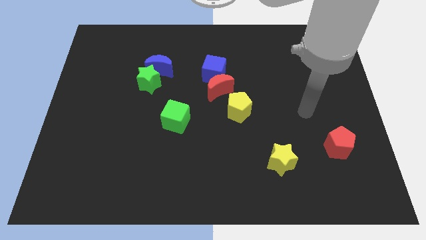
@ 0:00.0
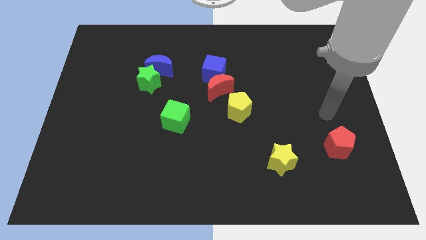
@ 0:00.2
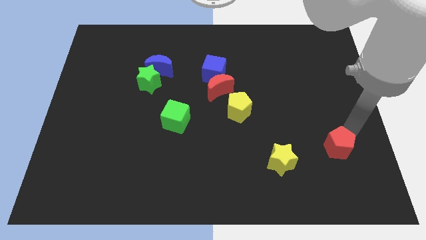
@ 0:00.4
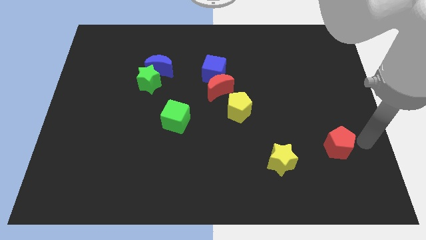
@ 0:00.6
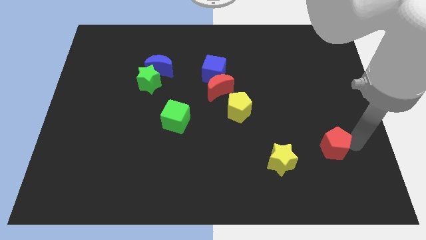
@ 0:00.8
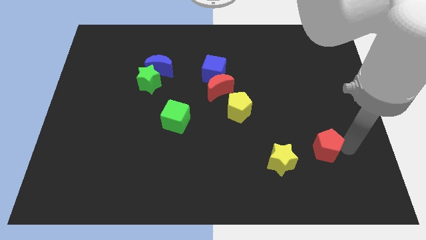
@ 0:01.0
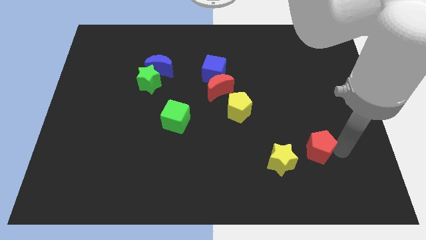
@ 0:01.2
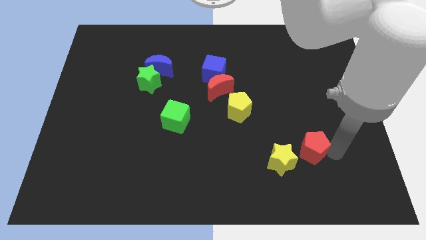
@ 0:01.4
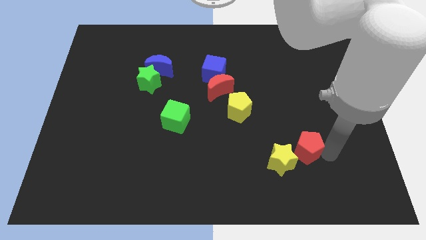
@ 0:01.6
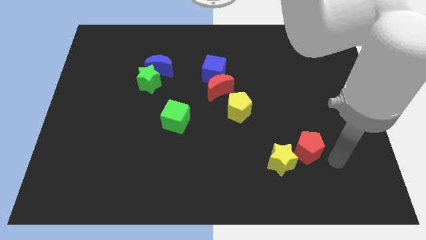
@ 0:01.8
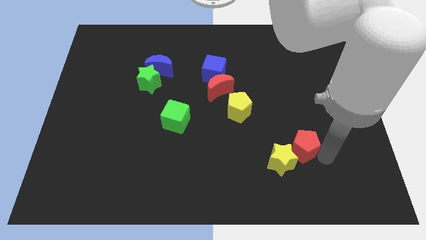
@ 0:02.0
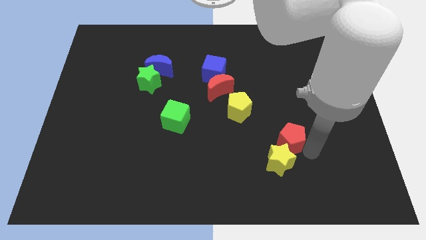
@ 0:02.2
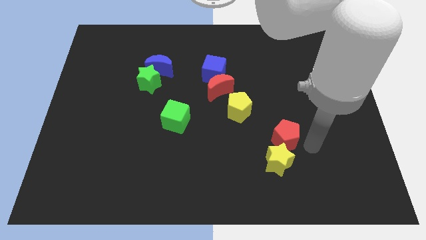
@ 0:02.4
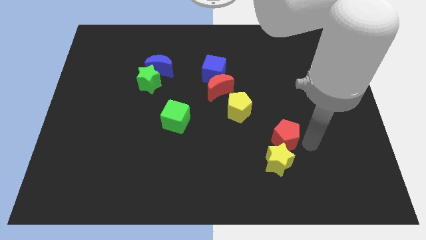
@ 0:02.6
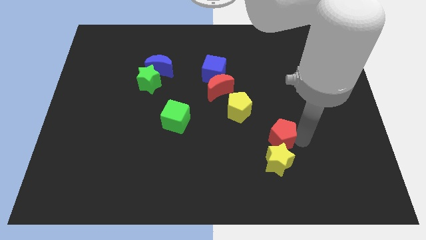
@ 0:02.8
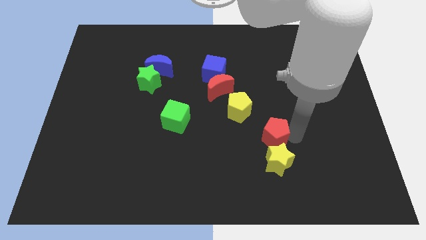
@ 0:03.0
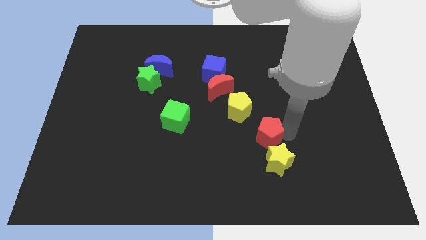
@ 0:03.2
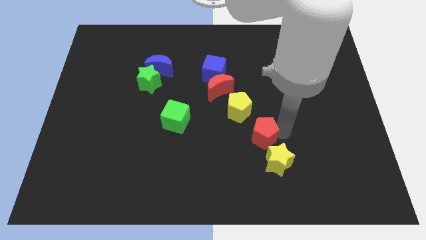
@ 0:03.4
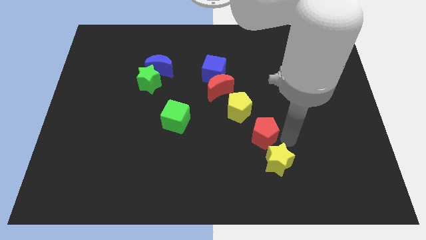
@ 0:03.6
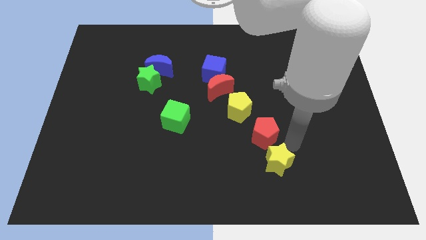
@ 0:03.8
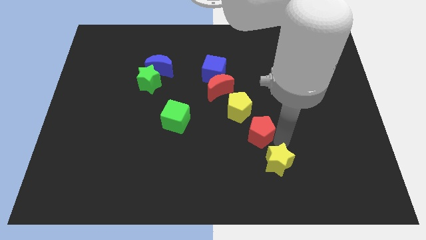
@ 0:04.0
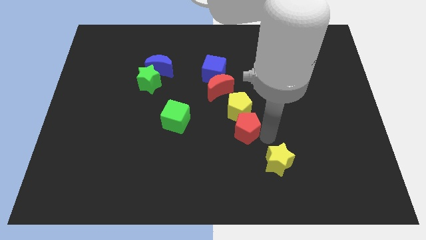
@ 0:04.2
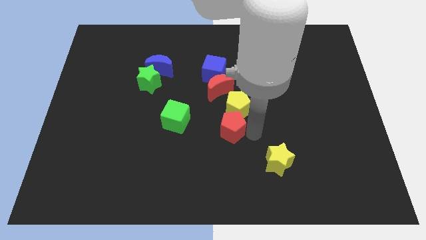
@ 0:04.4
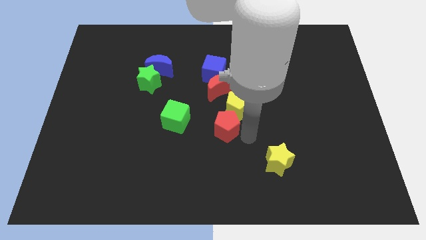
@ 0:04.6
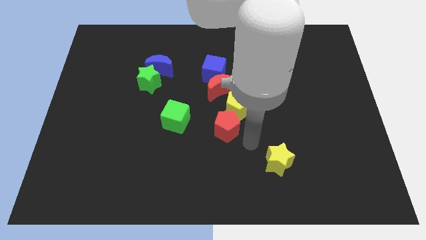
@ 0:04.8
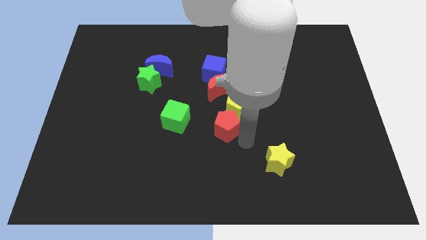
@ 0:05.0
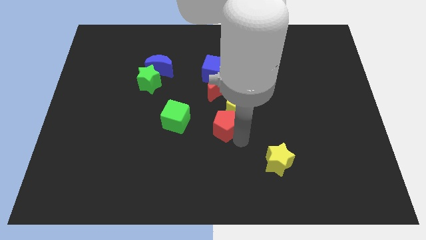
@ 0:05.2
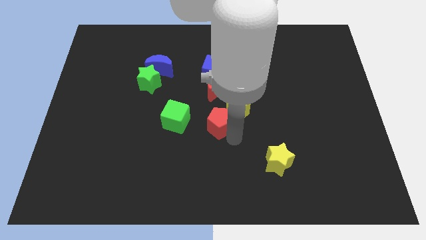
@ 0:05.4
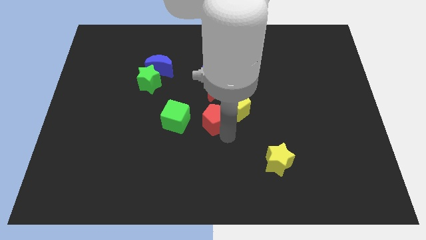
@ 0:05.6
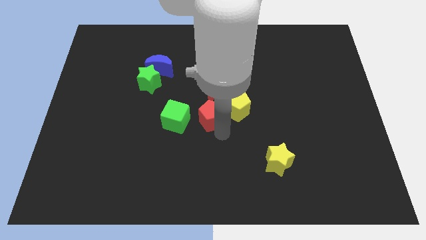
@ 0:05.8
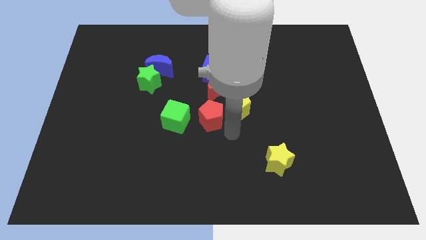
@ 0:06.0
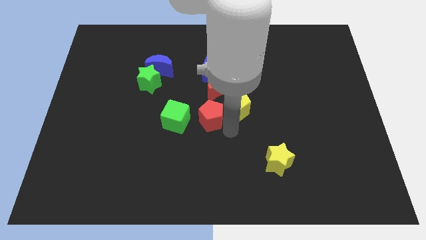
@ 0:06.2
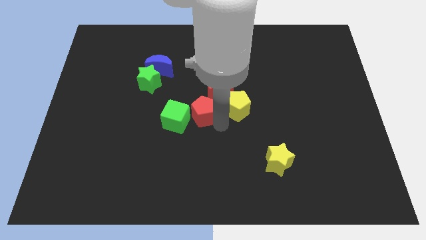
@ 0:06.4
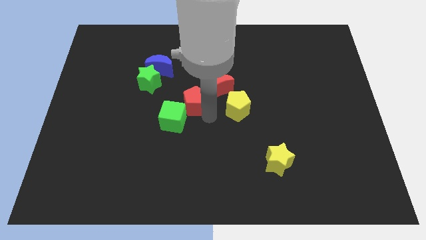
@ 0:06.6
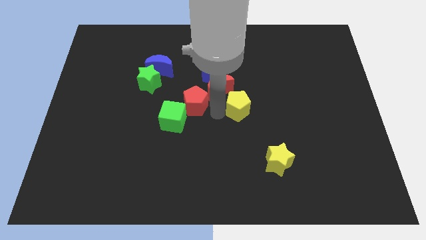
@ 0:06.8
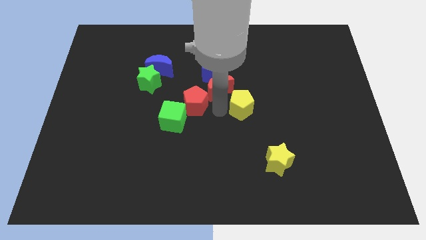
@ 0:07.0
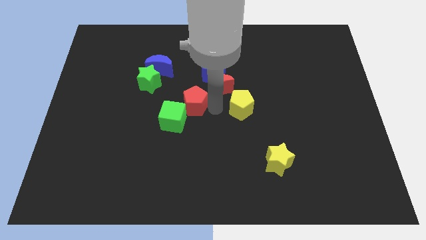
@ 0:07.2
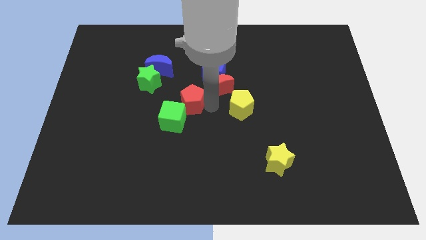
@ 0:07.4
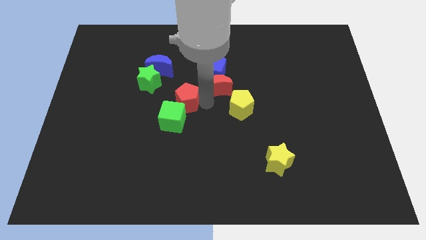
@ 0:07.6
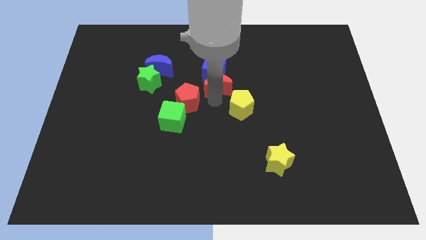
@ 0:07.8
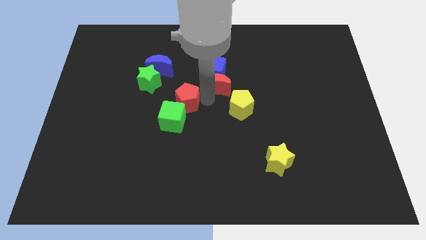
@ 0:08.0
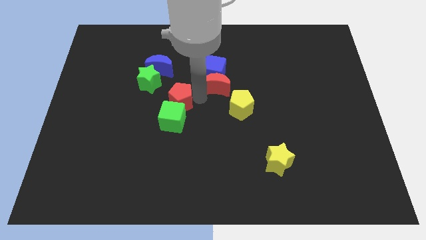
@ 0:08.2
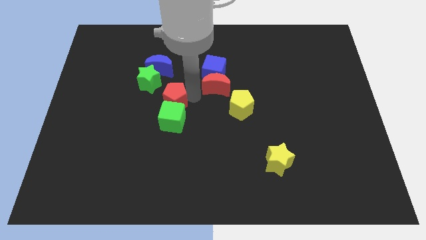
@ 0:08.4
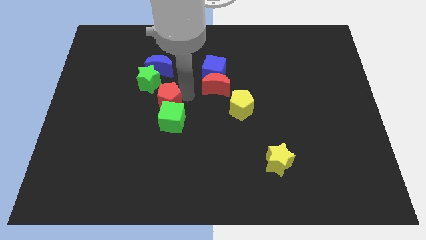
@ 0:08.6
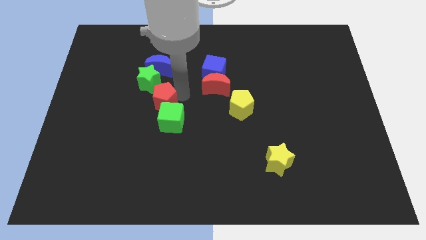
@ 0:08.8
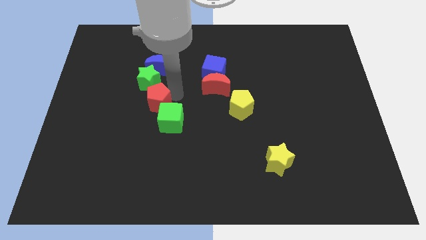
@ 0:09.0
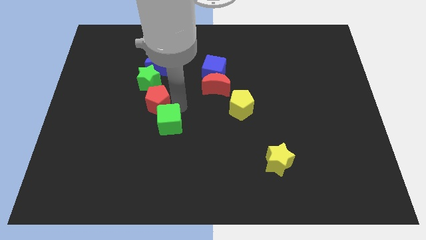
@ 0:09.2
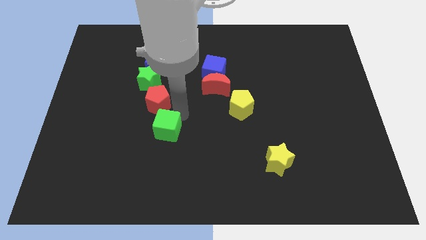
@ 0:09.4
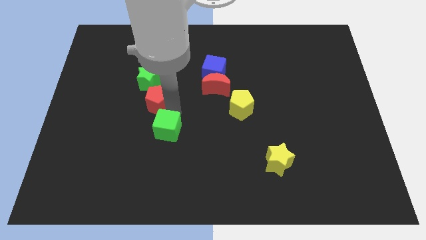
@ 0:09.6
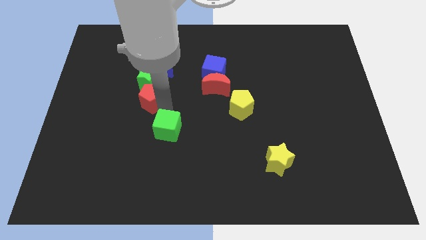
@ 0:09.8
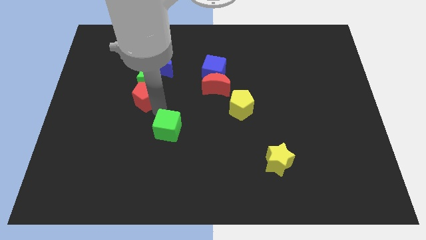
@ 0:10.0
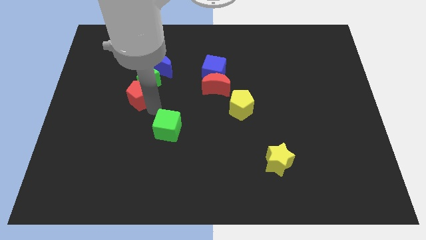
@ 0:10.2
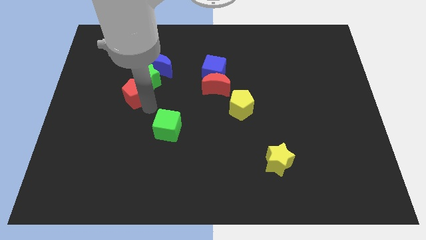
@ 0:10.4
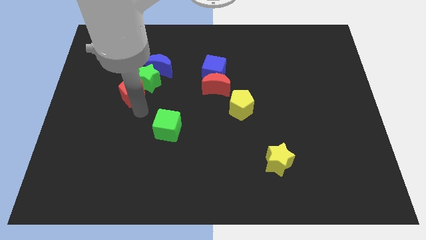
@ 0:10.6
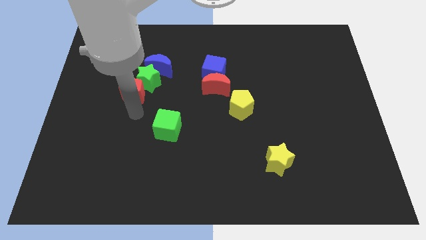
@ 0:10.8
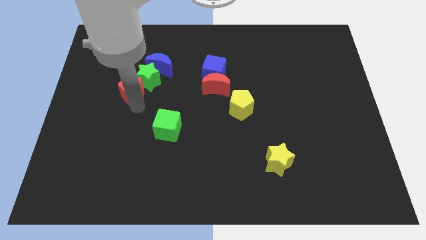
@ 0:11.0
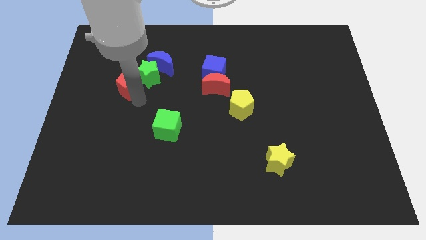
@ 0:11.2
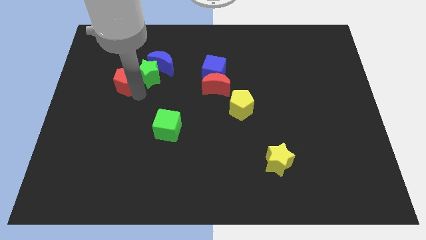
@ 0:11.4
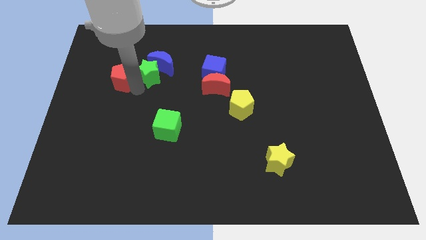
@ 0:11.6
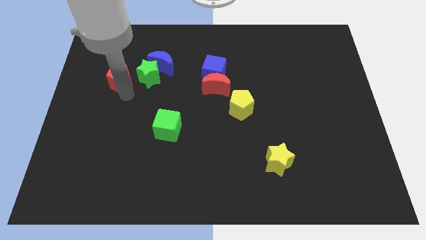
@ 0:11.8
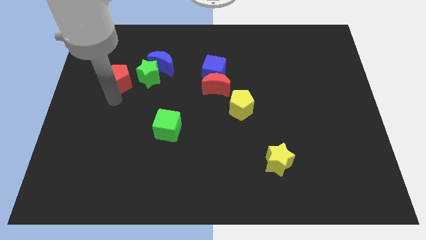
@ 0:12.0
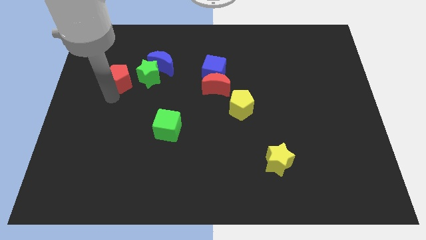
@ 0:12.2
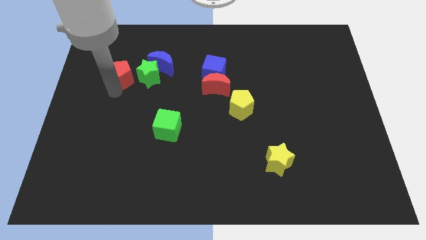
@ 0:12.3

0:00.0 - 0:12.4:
put the red pentagon to the top left of the green star
